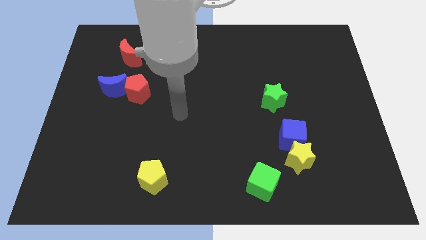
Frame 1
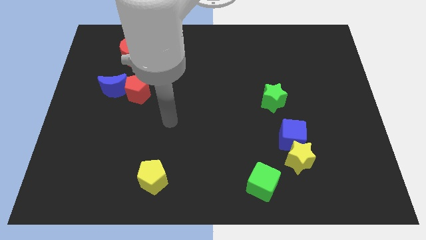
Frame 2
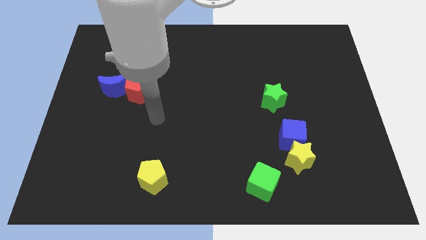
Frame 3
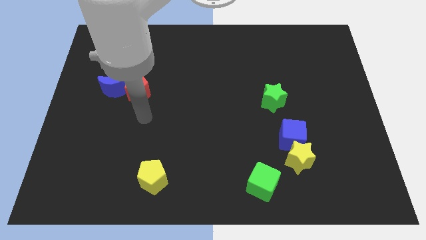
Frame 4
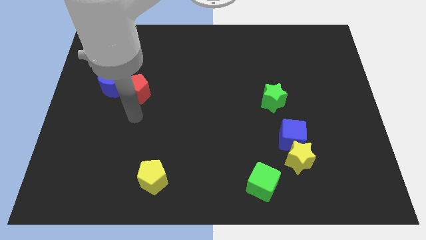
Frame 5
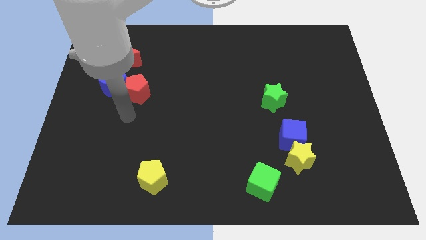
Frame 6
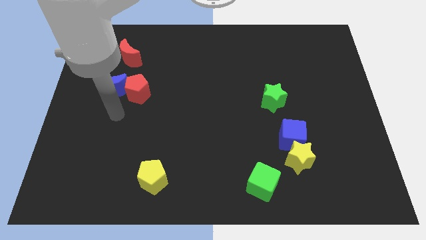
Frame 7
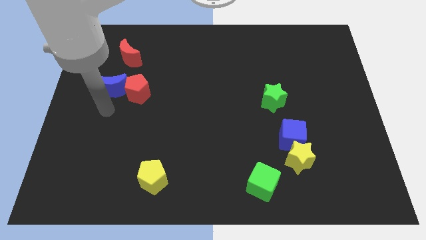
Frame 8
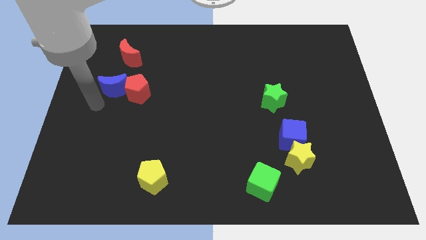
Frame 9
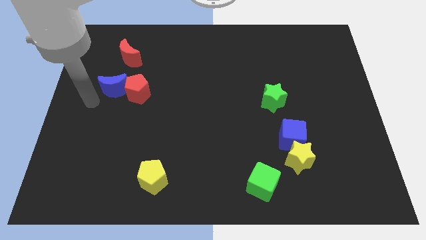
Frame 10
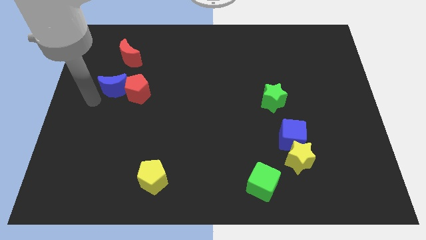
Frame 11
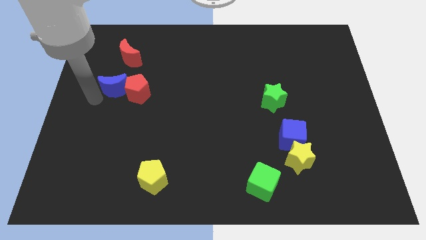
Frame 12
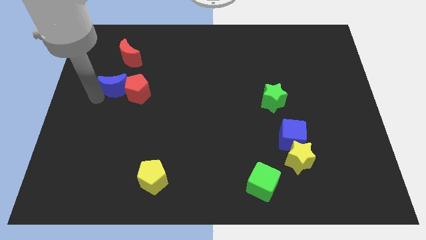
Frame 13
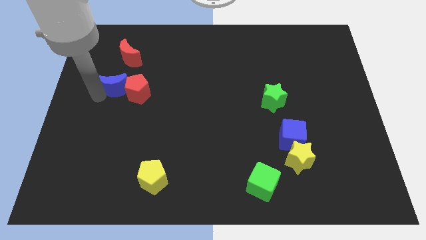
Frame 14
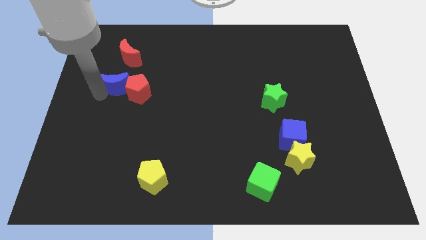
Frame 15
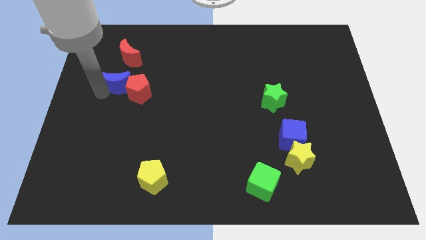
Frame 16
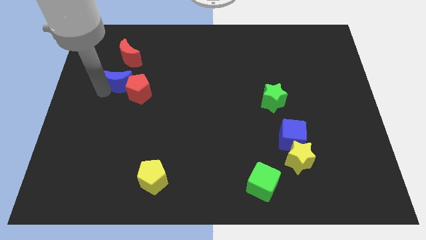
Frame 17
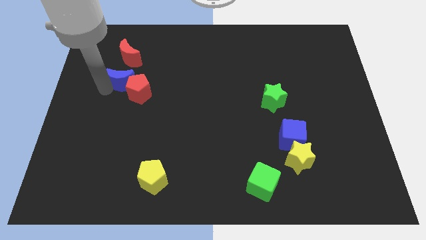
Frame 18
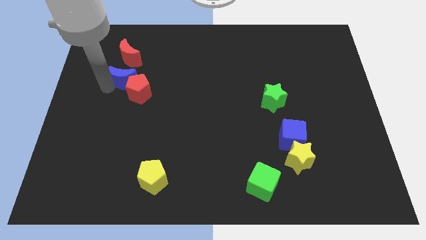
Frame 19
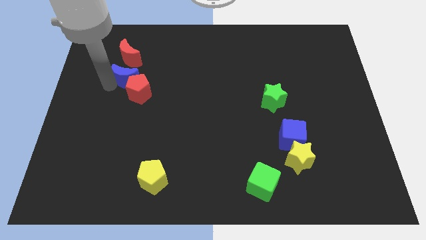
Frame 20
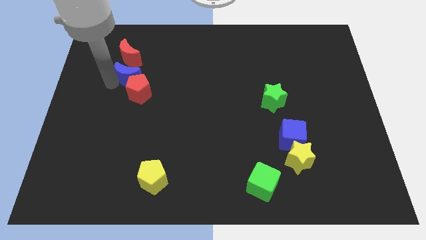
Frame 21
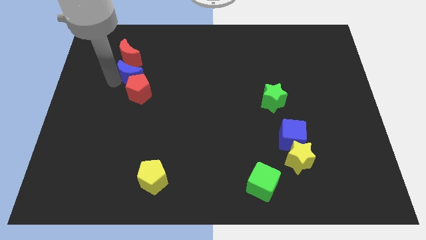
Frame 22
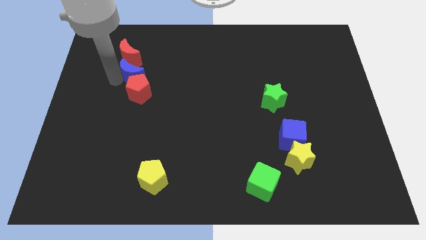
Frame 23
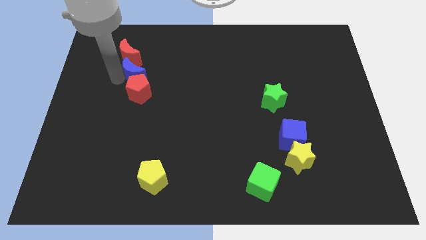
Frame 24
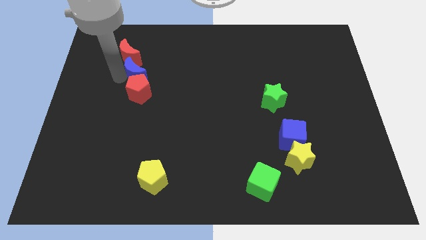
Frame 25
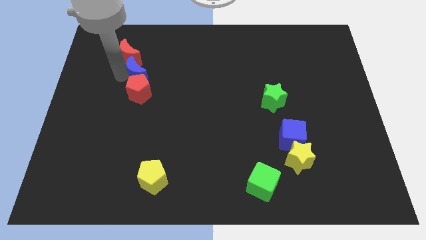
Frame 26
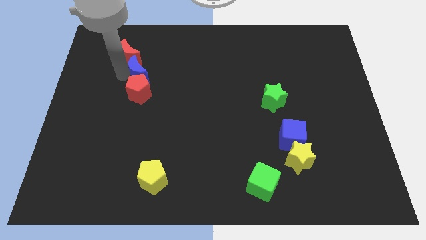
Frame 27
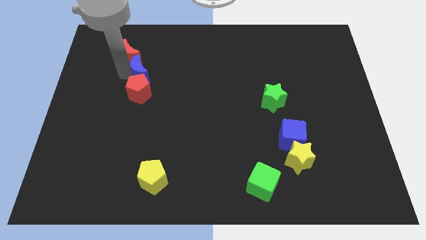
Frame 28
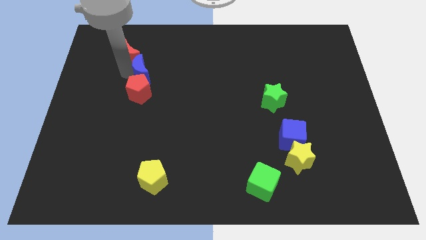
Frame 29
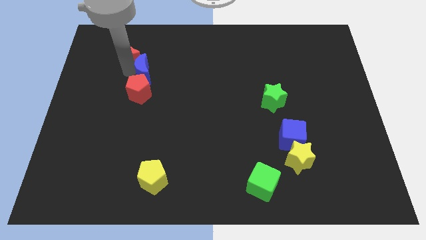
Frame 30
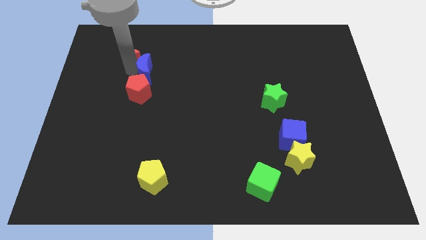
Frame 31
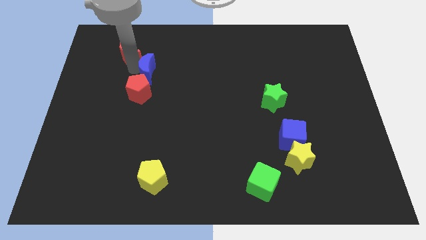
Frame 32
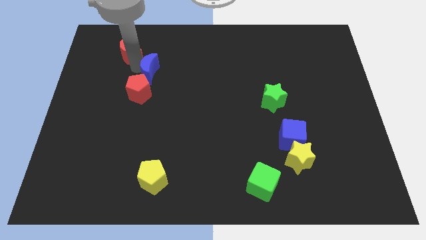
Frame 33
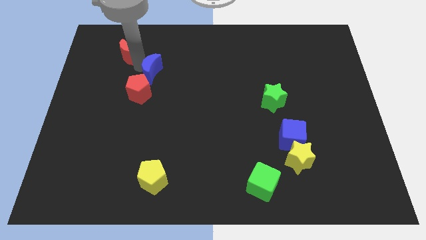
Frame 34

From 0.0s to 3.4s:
push the blue moon right slightly

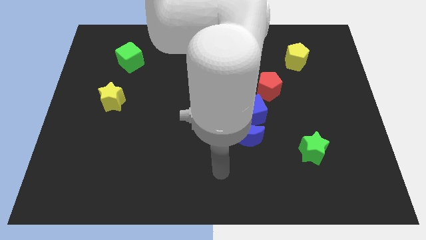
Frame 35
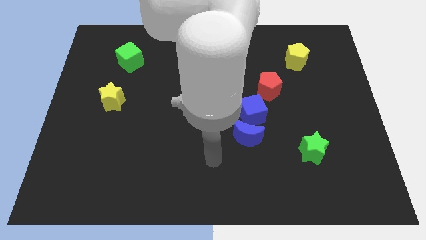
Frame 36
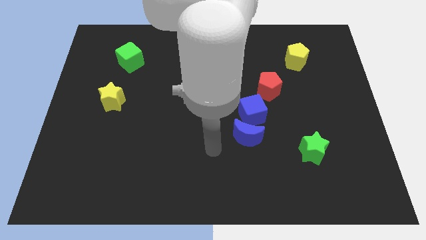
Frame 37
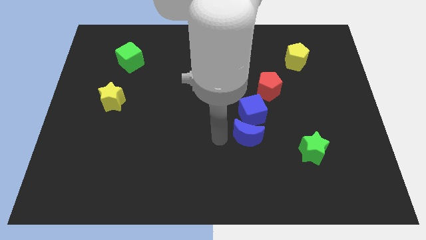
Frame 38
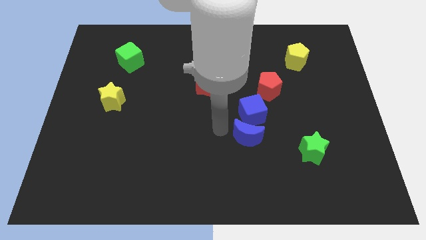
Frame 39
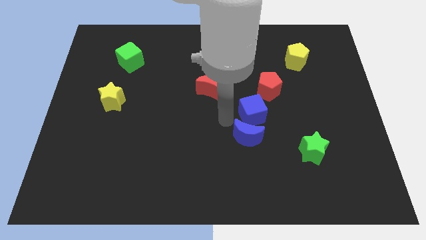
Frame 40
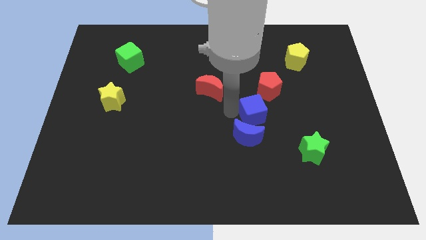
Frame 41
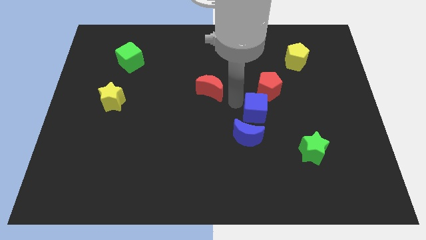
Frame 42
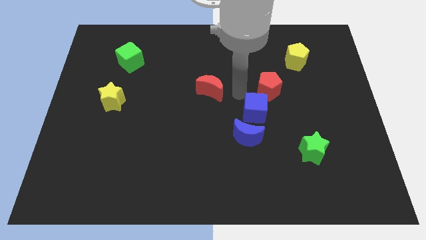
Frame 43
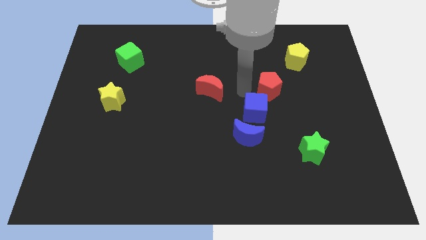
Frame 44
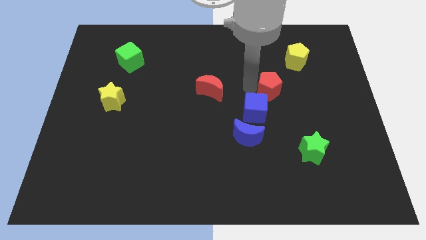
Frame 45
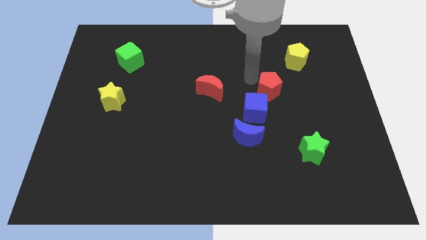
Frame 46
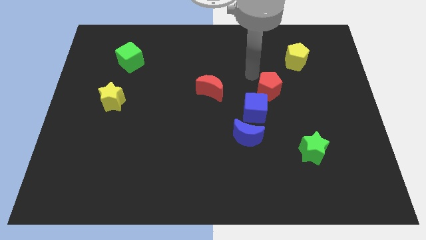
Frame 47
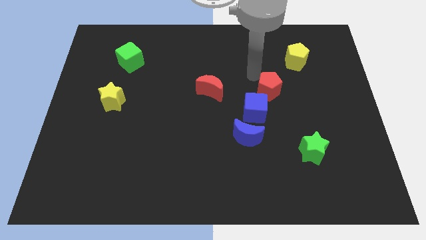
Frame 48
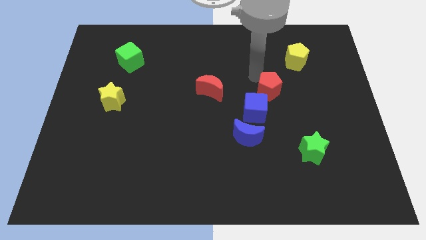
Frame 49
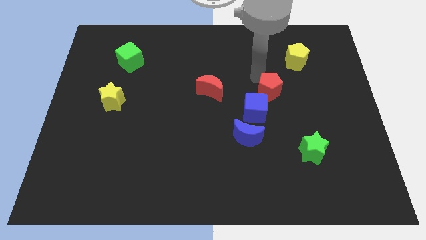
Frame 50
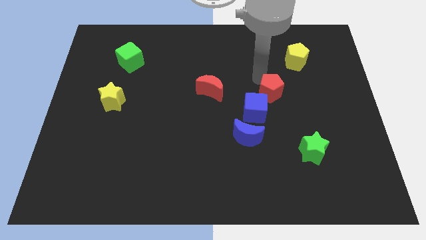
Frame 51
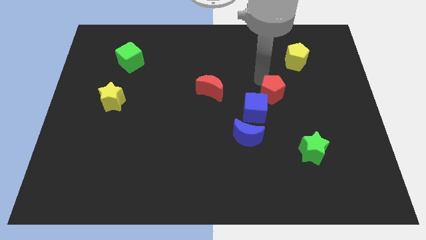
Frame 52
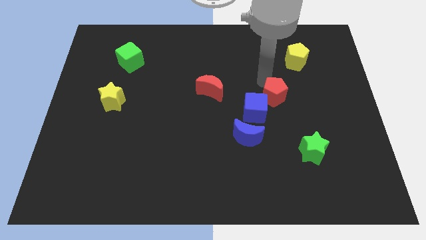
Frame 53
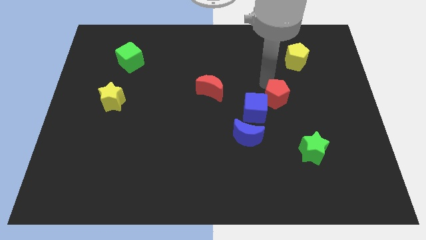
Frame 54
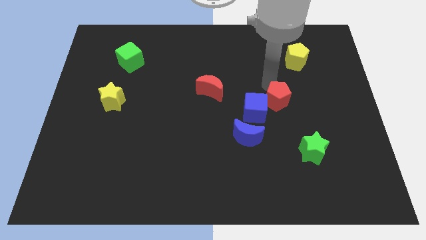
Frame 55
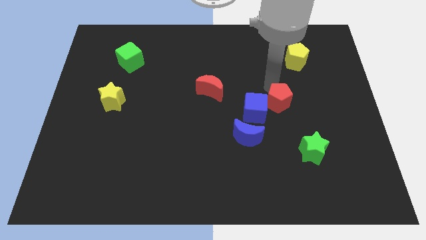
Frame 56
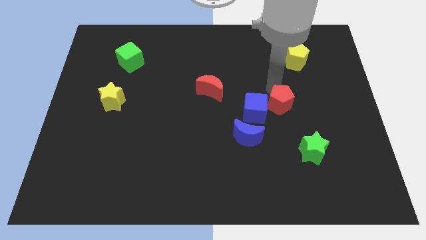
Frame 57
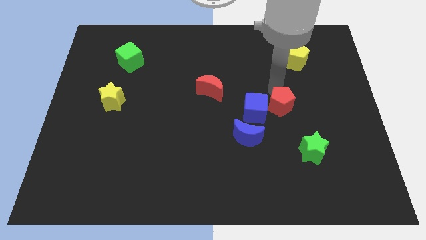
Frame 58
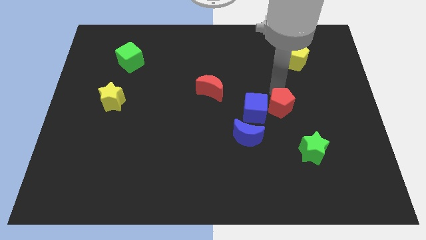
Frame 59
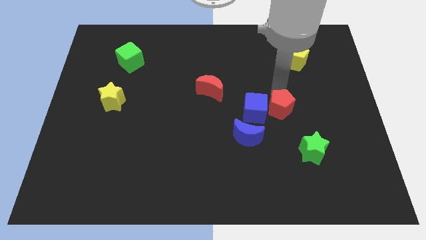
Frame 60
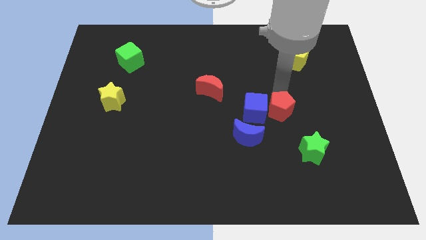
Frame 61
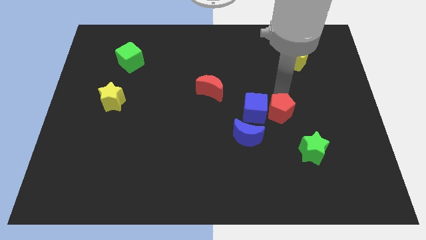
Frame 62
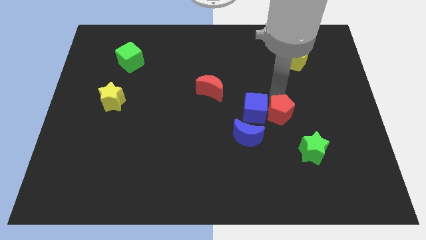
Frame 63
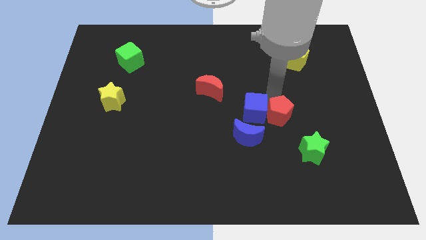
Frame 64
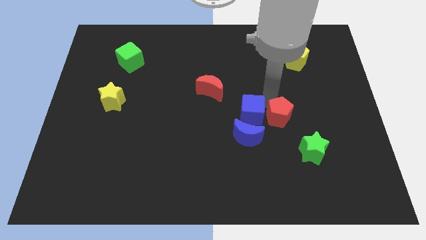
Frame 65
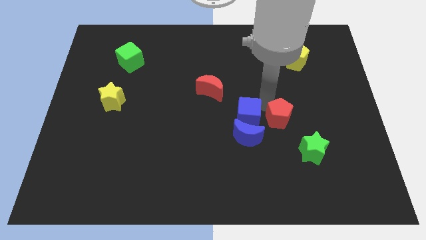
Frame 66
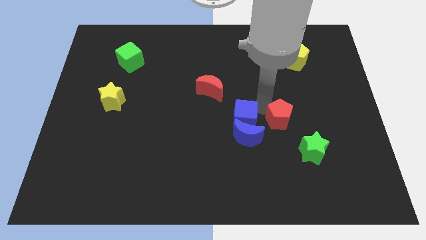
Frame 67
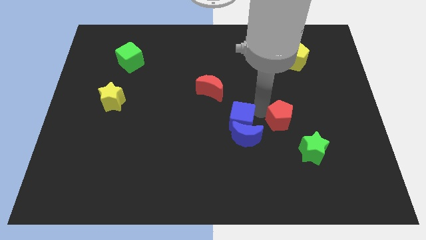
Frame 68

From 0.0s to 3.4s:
slightly slide the red pentagon downwards and then right

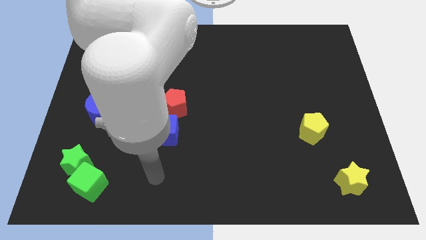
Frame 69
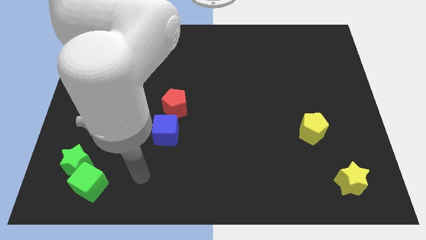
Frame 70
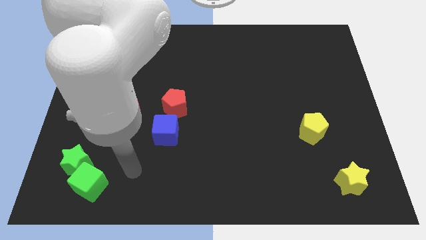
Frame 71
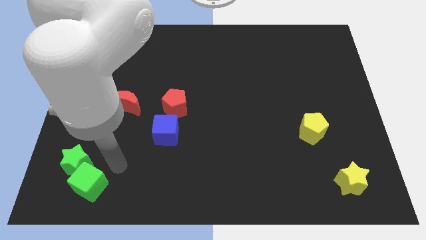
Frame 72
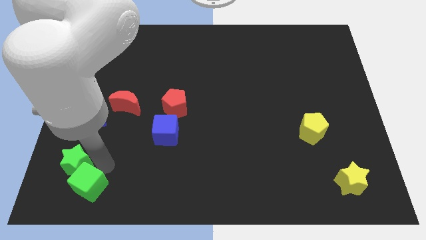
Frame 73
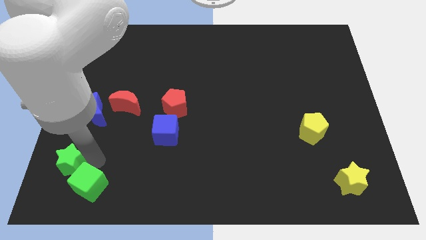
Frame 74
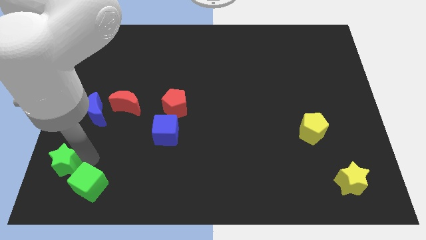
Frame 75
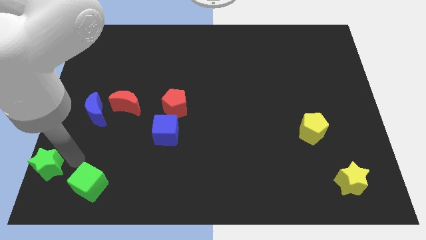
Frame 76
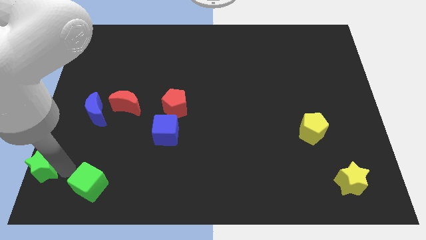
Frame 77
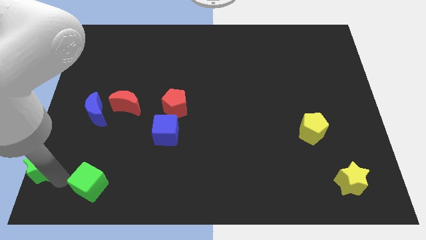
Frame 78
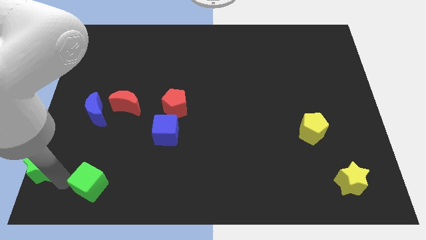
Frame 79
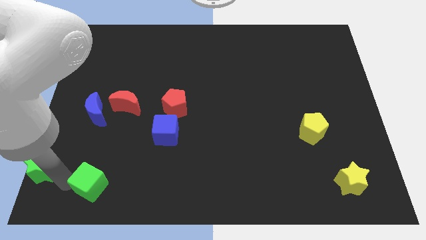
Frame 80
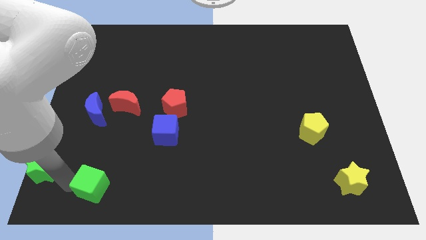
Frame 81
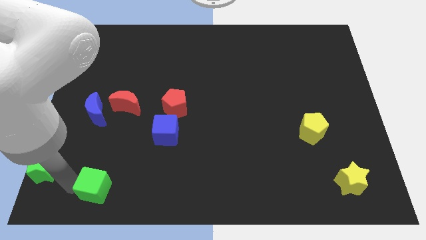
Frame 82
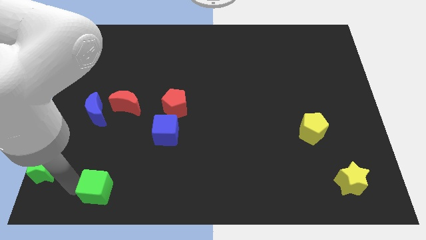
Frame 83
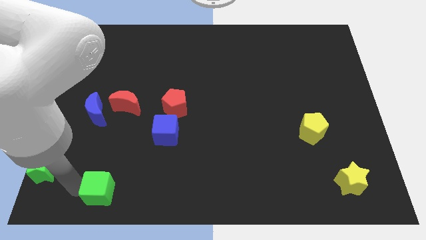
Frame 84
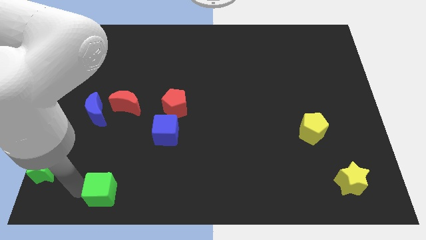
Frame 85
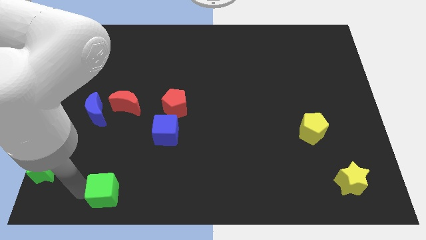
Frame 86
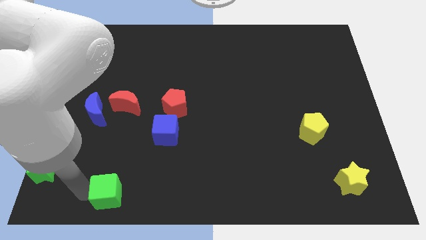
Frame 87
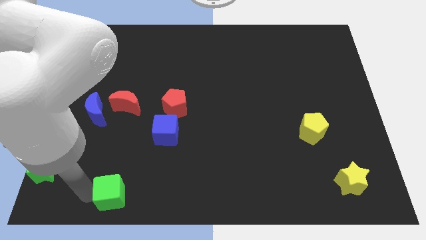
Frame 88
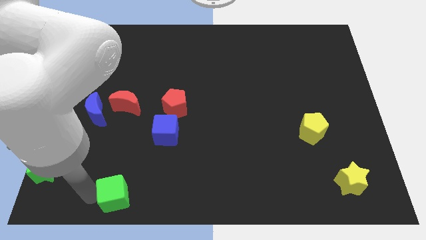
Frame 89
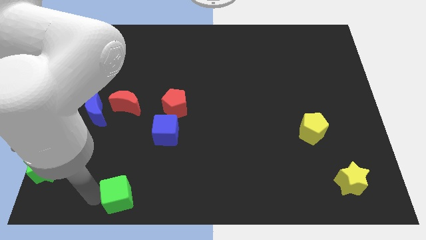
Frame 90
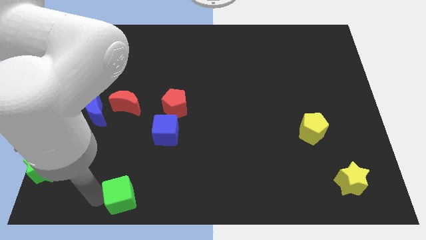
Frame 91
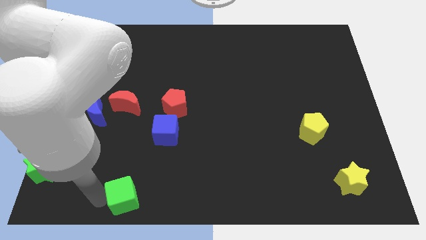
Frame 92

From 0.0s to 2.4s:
slightly slide the green cube right
